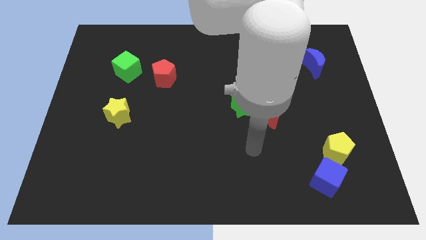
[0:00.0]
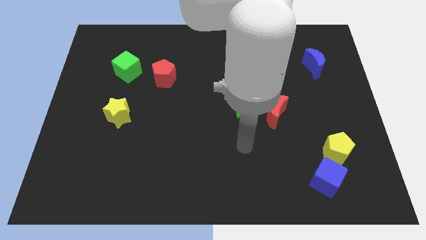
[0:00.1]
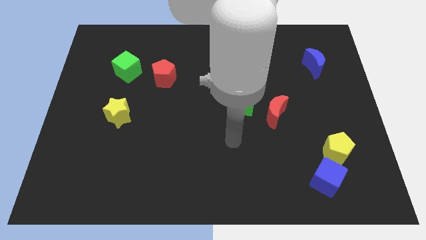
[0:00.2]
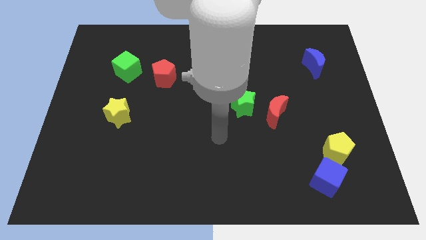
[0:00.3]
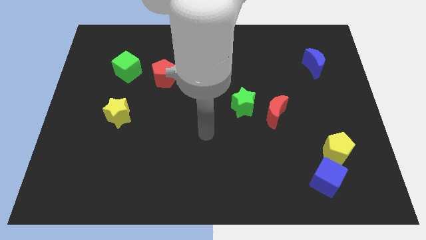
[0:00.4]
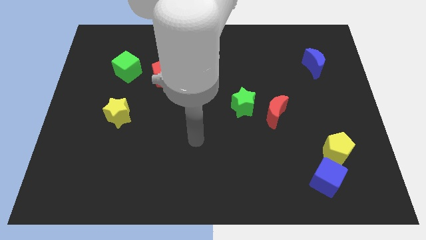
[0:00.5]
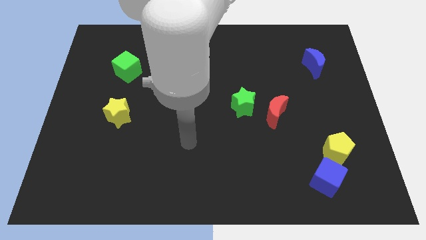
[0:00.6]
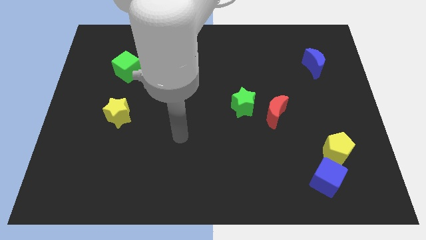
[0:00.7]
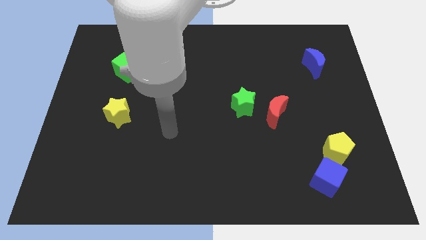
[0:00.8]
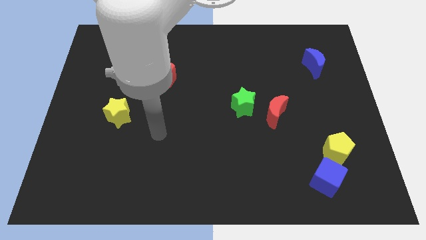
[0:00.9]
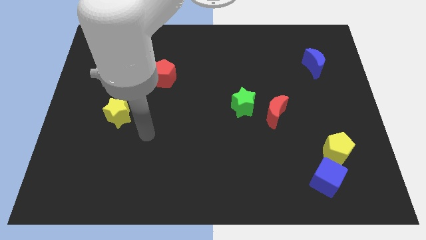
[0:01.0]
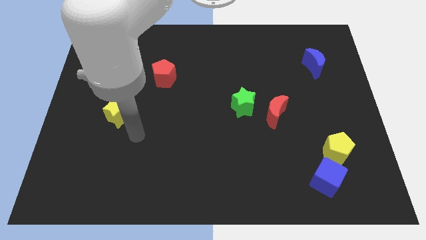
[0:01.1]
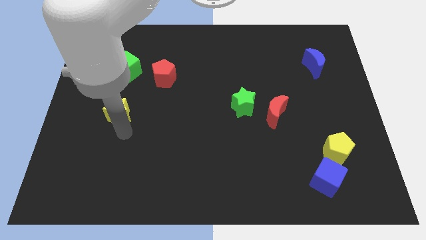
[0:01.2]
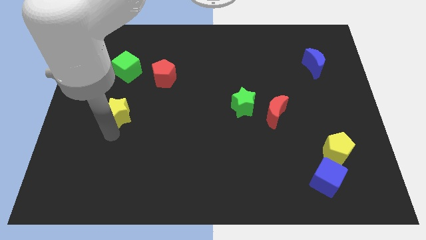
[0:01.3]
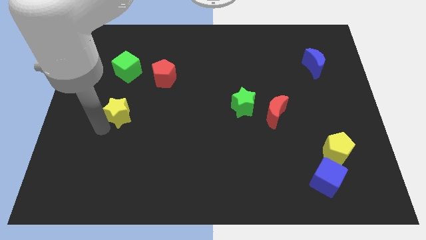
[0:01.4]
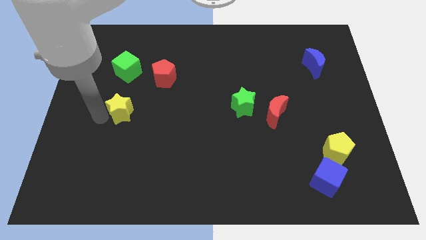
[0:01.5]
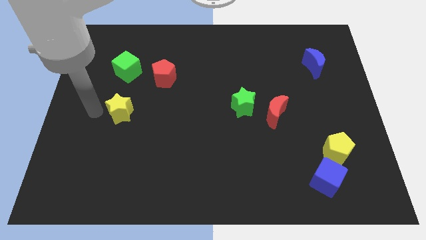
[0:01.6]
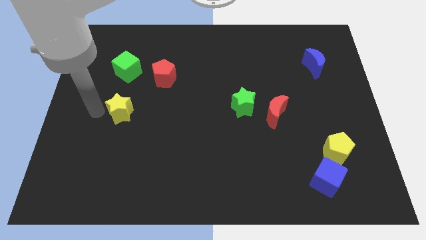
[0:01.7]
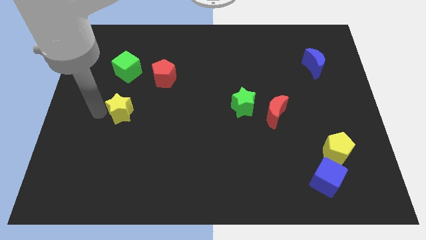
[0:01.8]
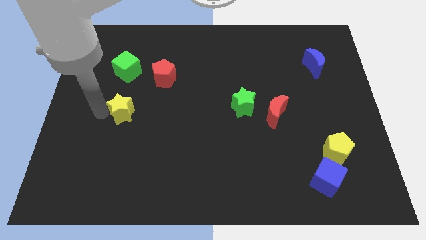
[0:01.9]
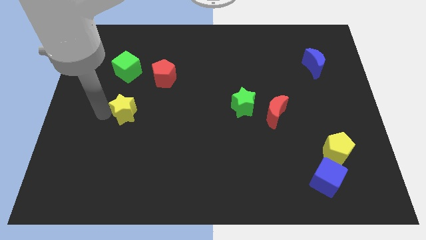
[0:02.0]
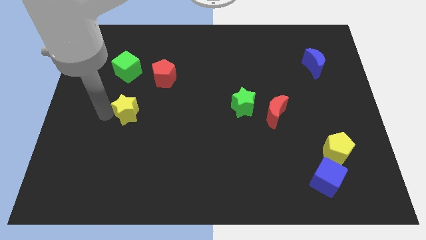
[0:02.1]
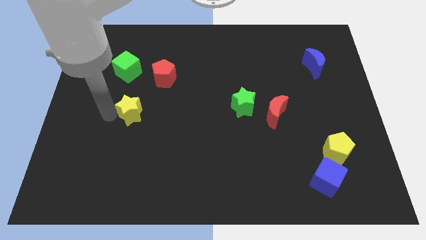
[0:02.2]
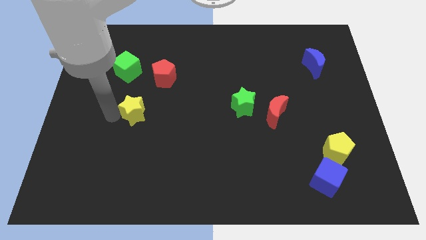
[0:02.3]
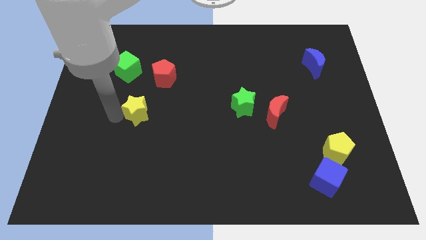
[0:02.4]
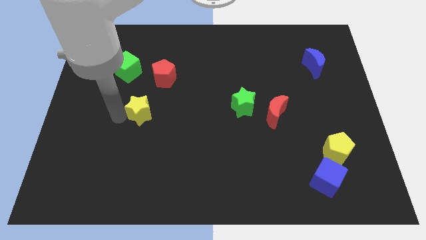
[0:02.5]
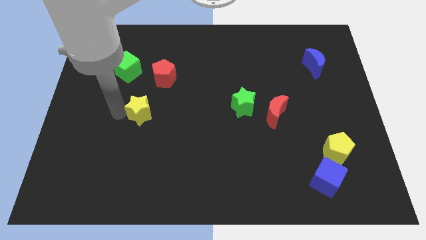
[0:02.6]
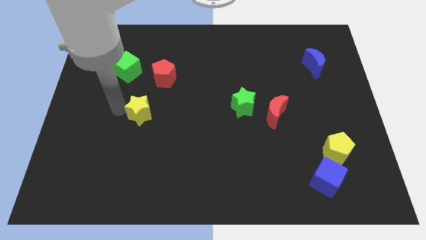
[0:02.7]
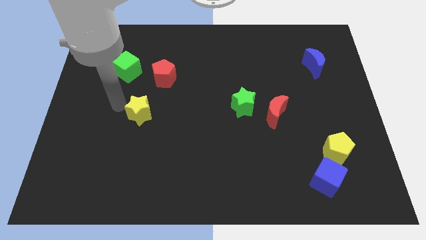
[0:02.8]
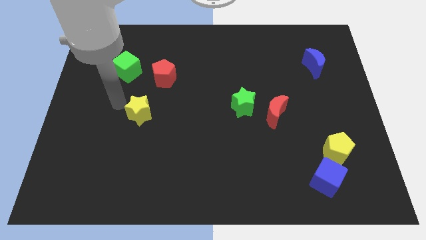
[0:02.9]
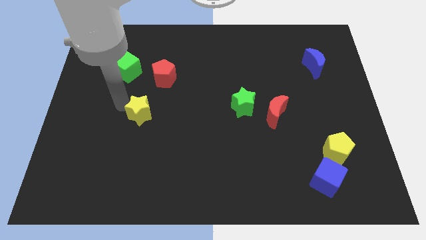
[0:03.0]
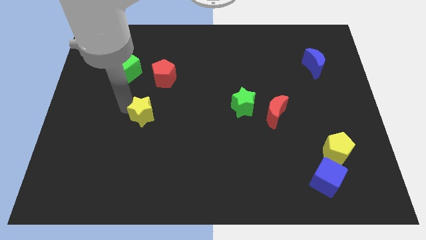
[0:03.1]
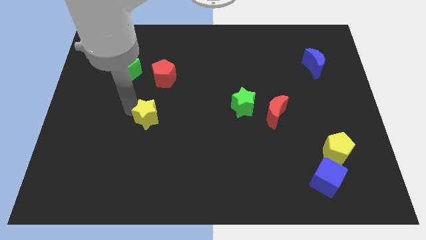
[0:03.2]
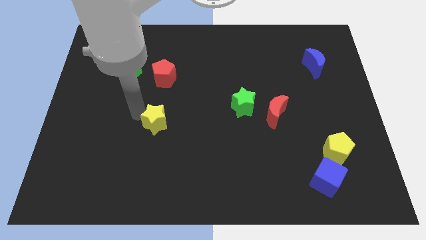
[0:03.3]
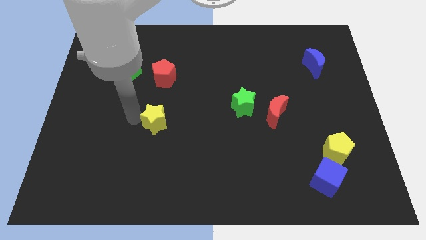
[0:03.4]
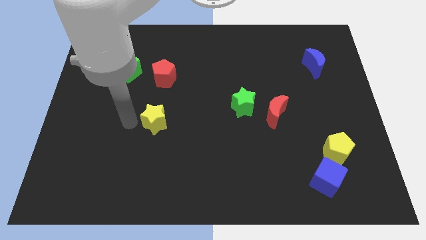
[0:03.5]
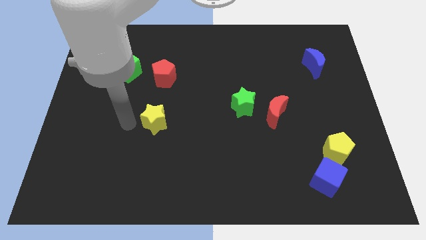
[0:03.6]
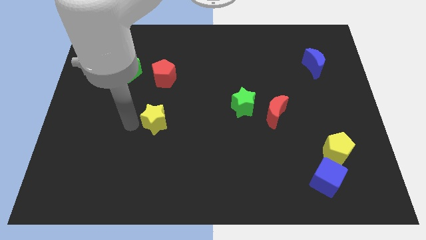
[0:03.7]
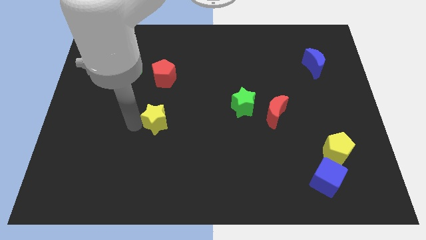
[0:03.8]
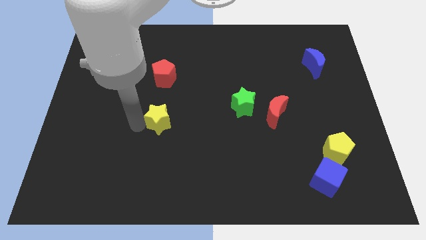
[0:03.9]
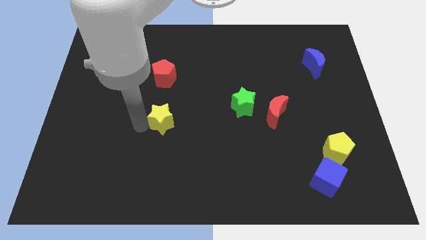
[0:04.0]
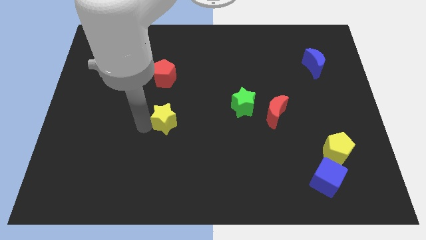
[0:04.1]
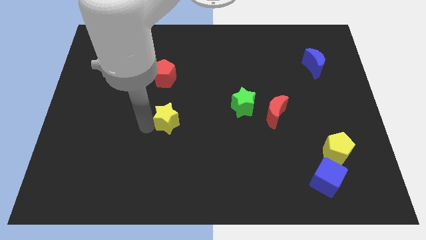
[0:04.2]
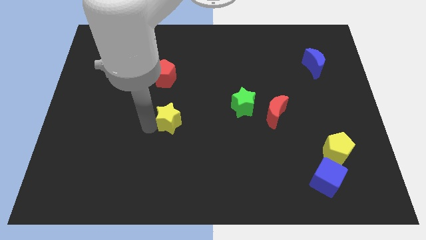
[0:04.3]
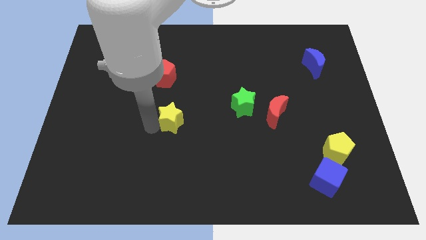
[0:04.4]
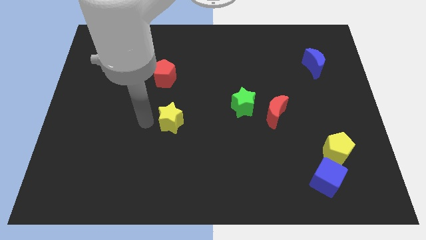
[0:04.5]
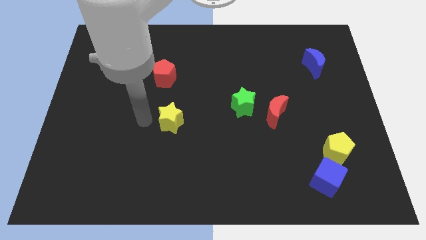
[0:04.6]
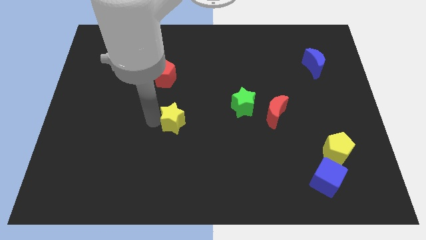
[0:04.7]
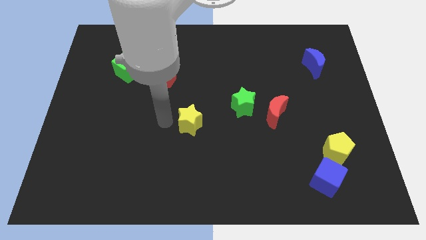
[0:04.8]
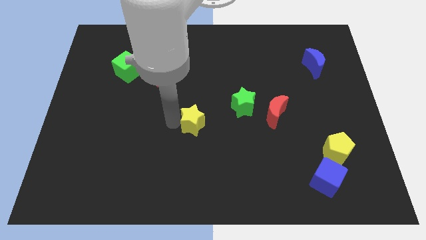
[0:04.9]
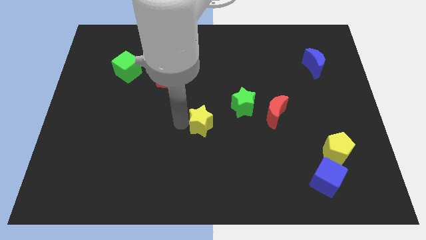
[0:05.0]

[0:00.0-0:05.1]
move the yellow star to the bottom left of the green star

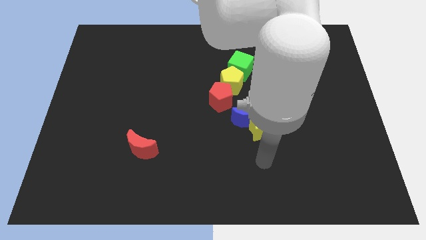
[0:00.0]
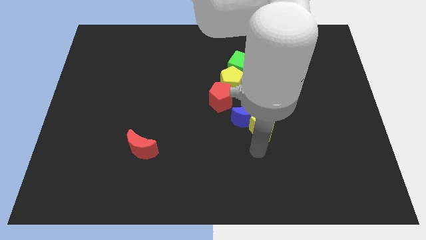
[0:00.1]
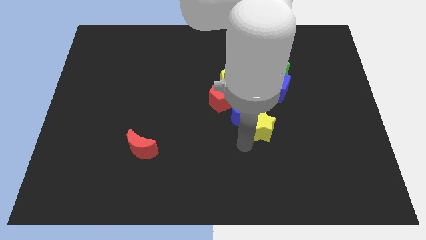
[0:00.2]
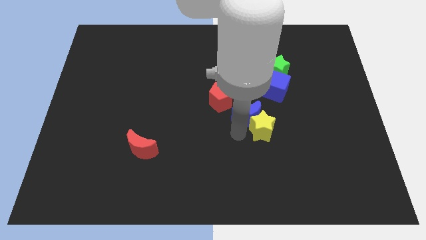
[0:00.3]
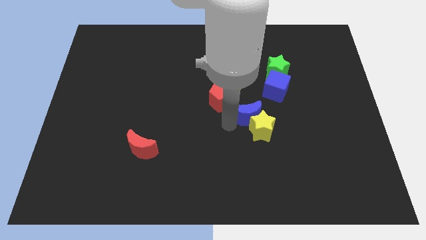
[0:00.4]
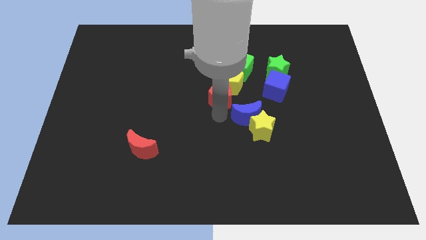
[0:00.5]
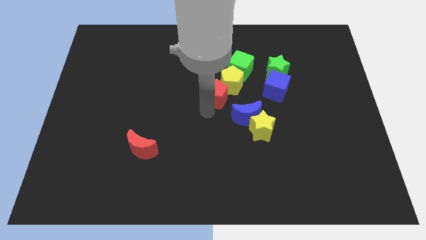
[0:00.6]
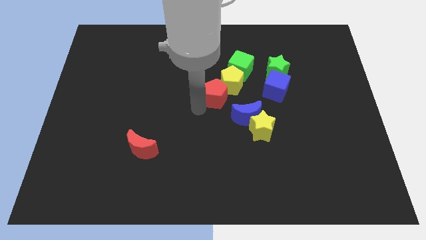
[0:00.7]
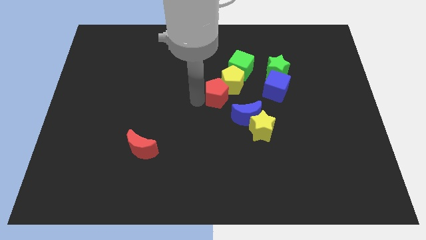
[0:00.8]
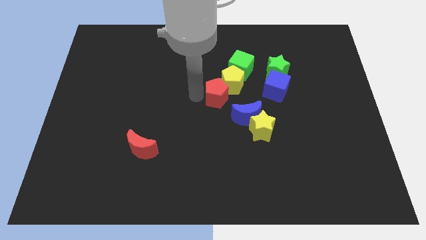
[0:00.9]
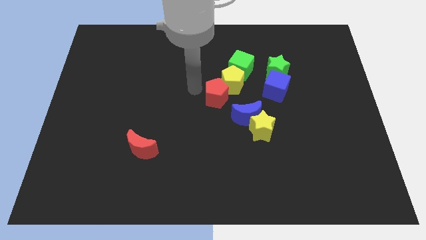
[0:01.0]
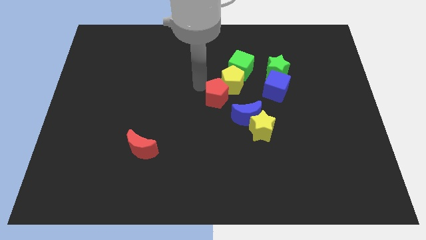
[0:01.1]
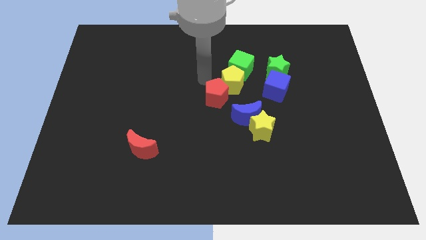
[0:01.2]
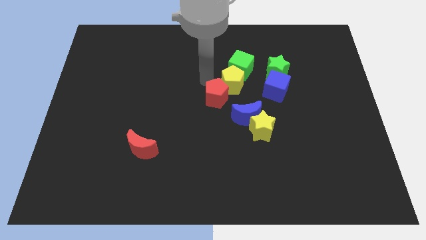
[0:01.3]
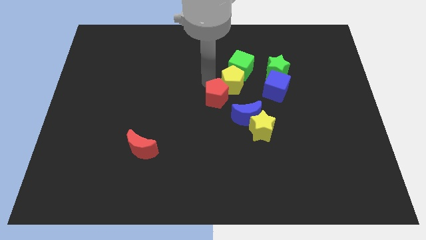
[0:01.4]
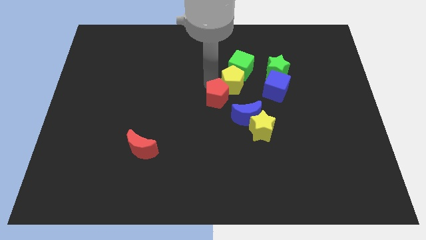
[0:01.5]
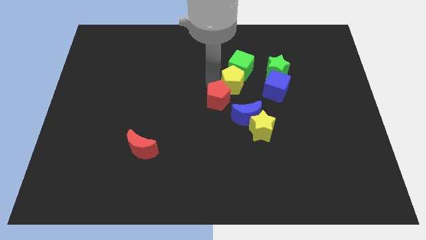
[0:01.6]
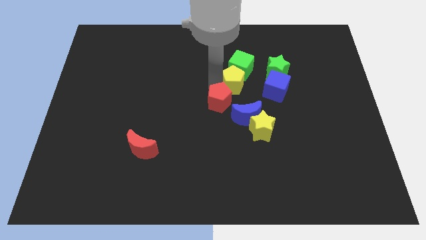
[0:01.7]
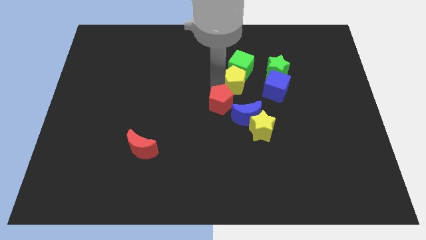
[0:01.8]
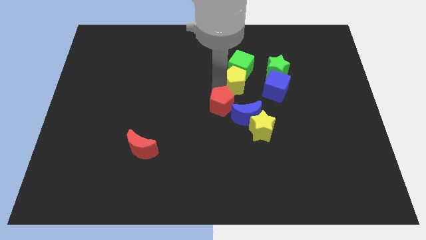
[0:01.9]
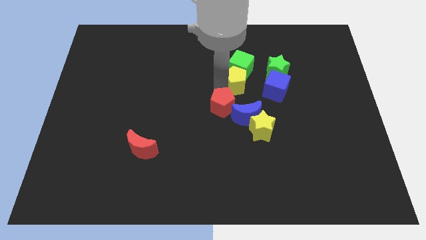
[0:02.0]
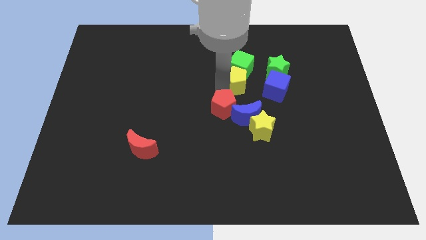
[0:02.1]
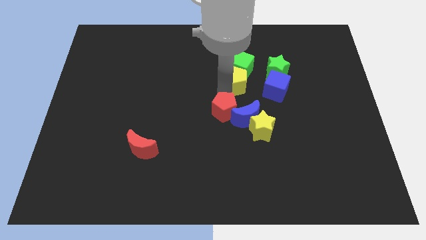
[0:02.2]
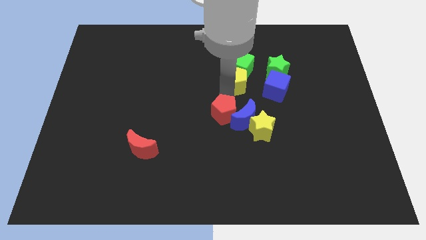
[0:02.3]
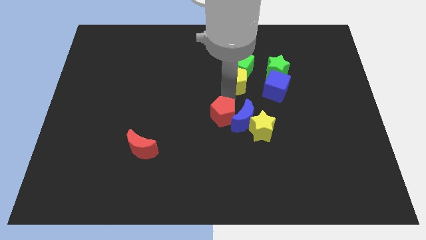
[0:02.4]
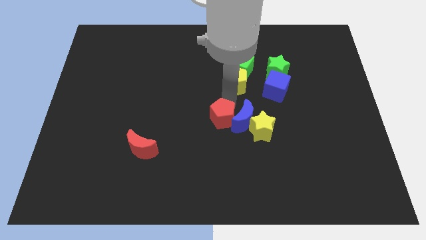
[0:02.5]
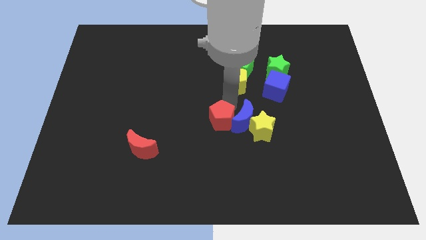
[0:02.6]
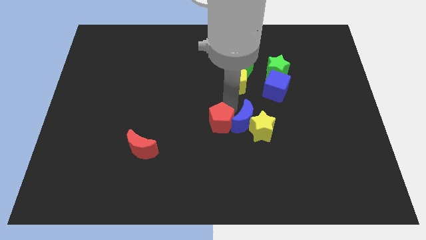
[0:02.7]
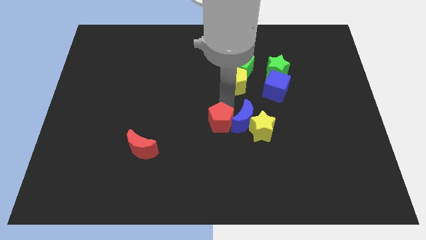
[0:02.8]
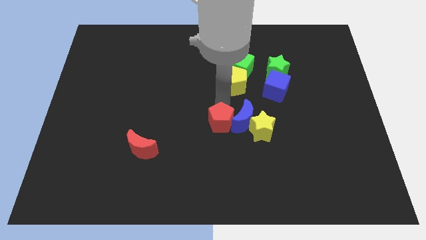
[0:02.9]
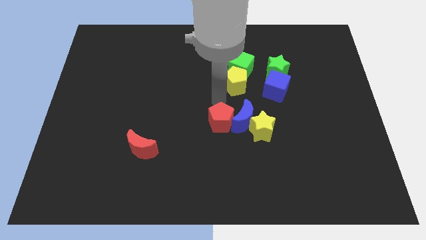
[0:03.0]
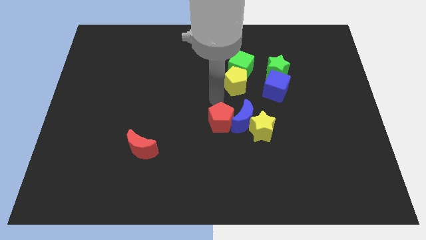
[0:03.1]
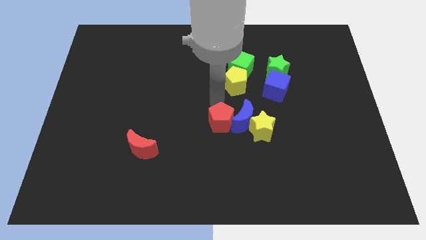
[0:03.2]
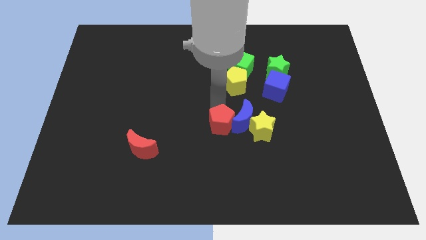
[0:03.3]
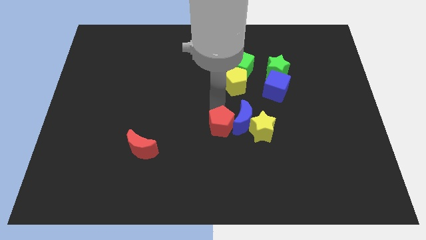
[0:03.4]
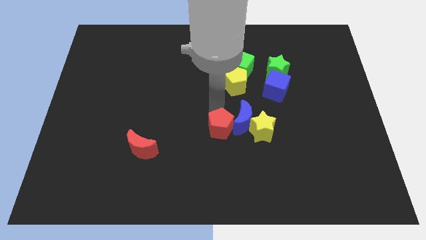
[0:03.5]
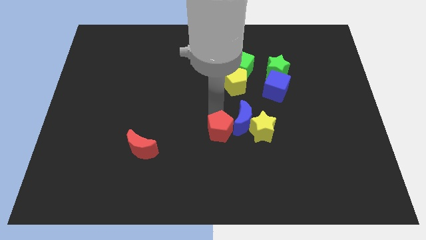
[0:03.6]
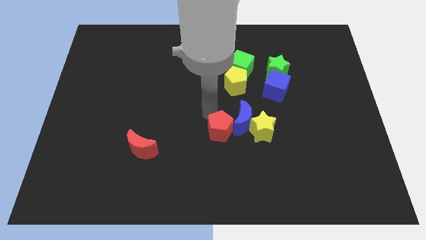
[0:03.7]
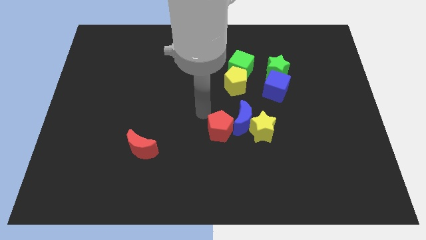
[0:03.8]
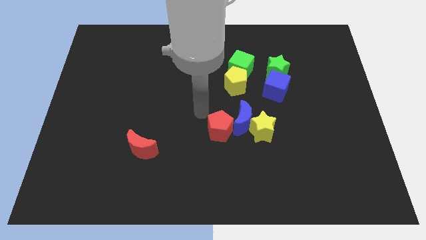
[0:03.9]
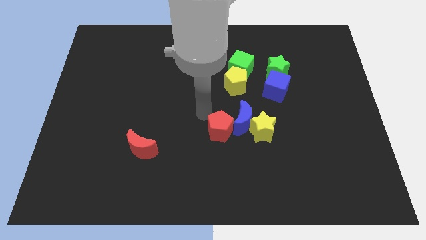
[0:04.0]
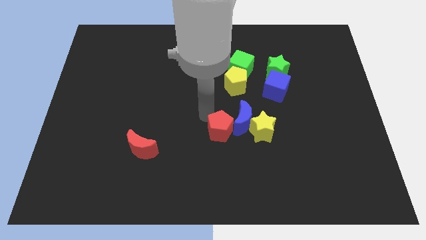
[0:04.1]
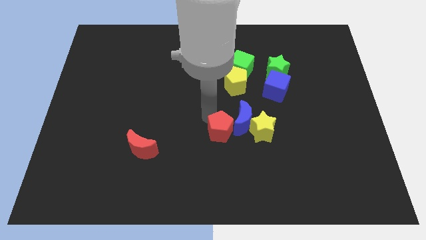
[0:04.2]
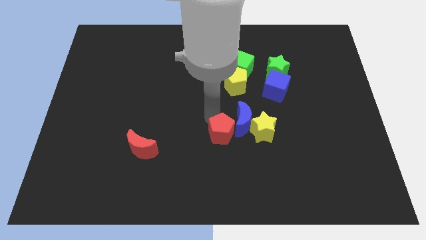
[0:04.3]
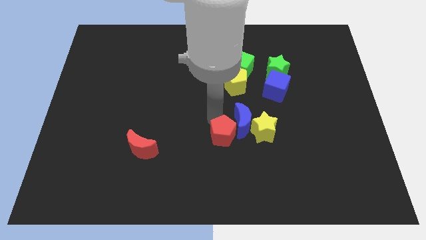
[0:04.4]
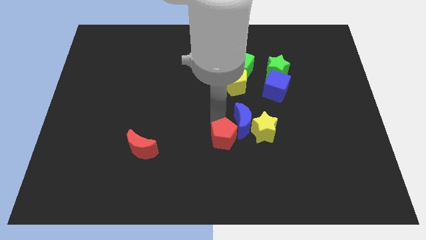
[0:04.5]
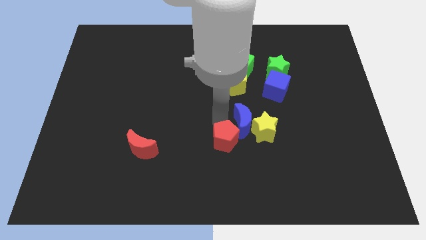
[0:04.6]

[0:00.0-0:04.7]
push the red pentagon diagonally down and to the left of the yellow star
